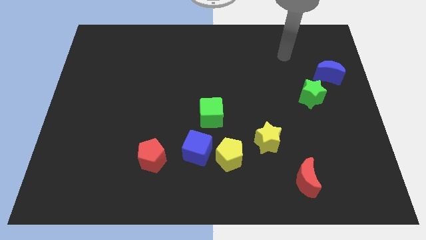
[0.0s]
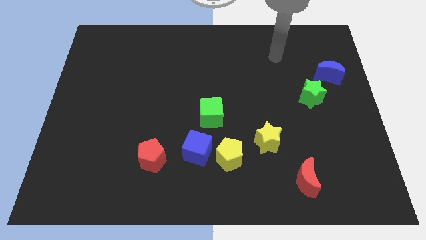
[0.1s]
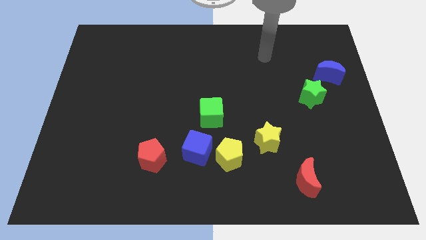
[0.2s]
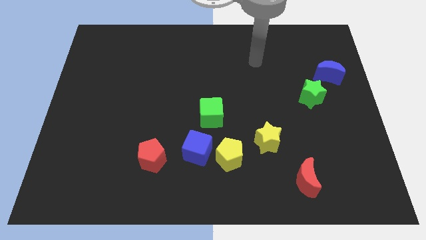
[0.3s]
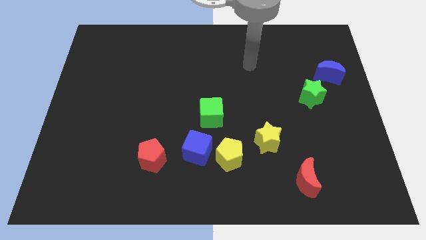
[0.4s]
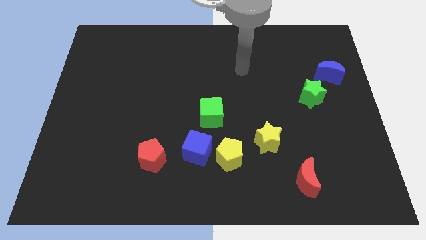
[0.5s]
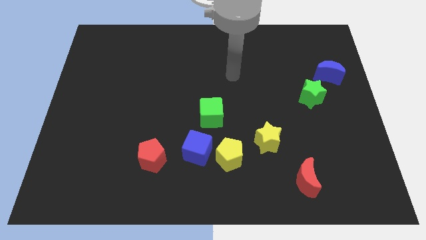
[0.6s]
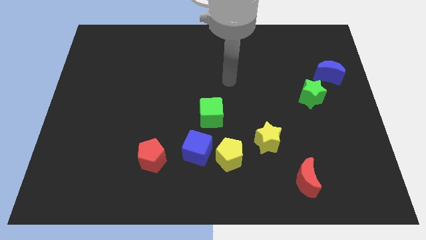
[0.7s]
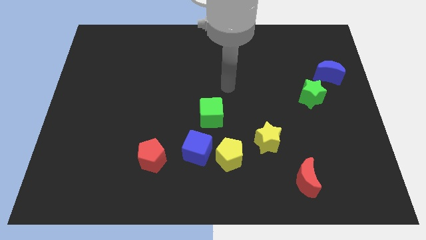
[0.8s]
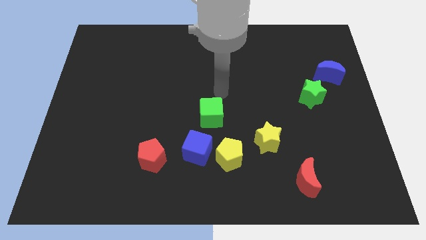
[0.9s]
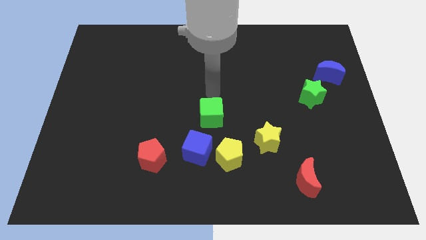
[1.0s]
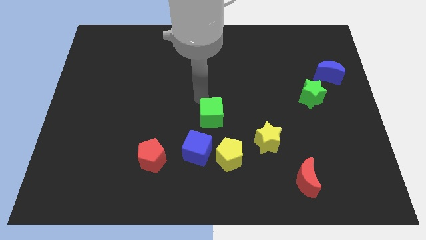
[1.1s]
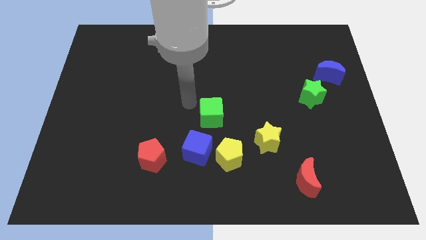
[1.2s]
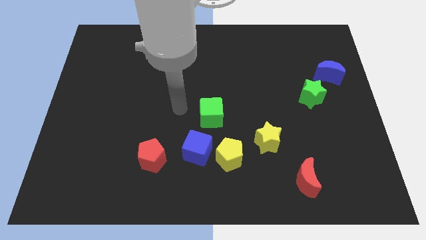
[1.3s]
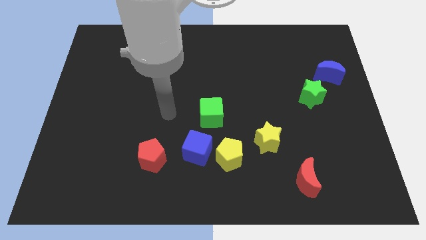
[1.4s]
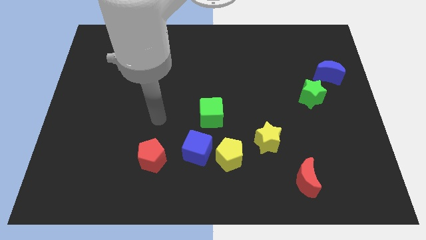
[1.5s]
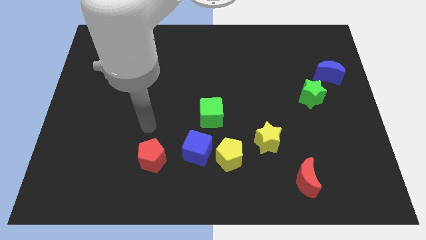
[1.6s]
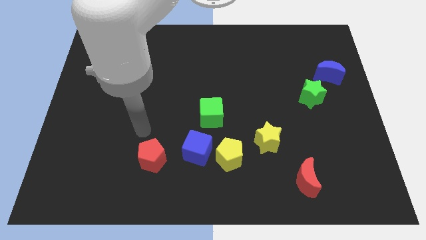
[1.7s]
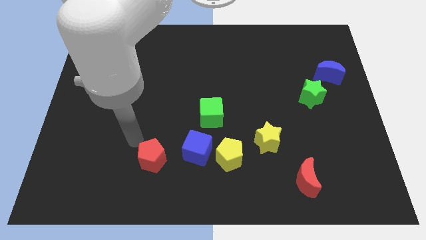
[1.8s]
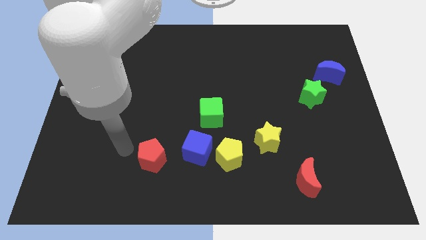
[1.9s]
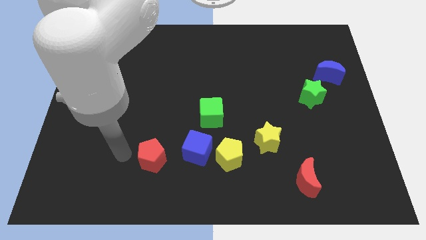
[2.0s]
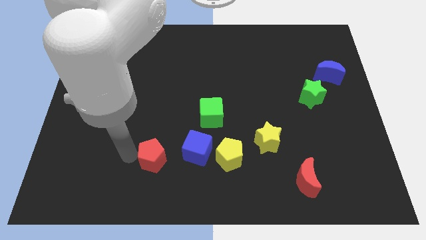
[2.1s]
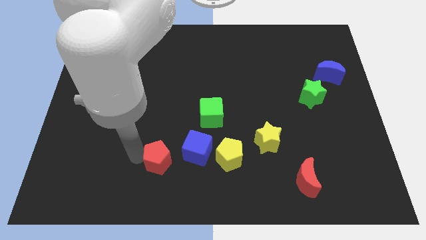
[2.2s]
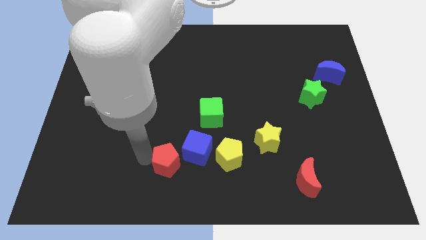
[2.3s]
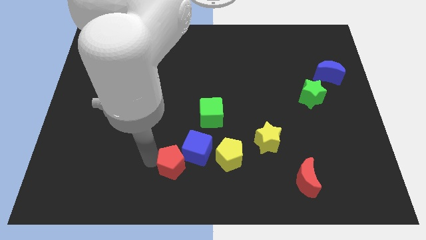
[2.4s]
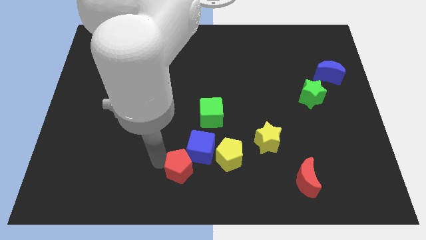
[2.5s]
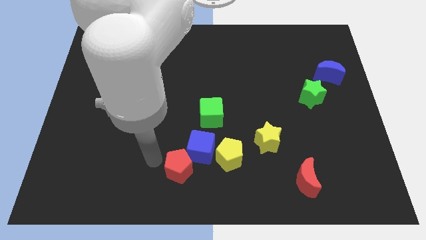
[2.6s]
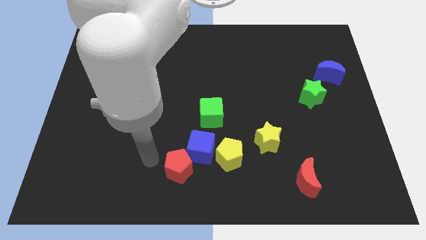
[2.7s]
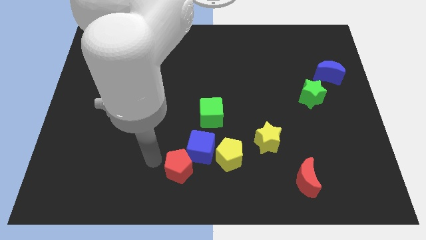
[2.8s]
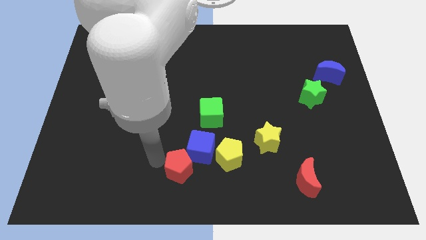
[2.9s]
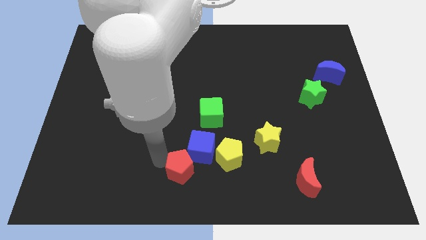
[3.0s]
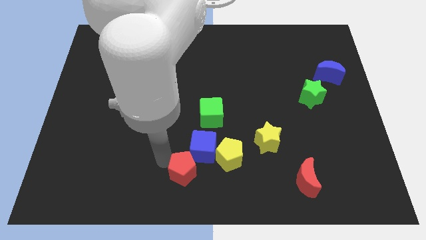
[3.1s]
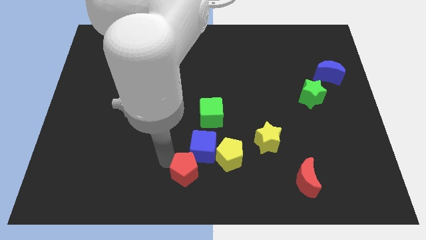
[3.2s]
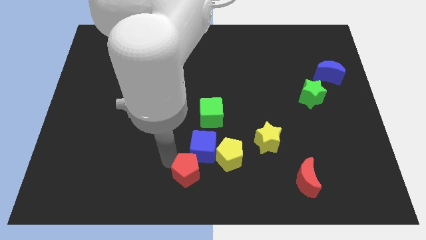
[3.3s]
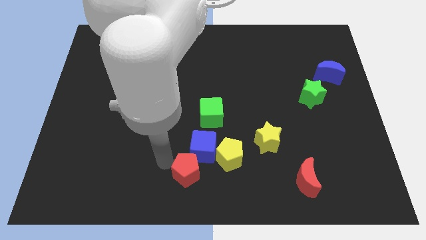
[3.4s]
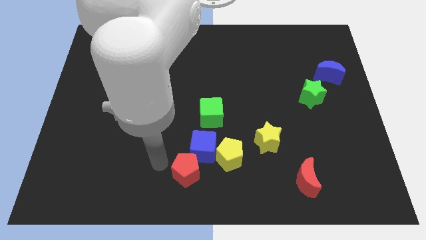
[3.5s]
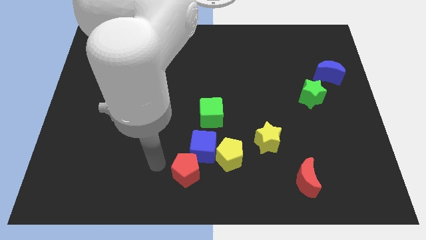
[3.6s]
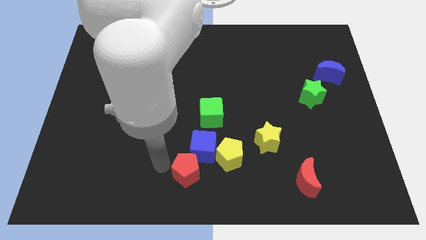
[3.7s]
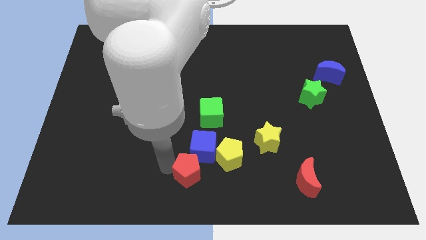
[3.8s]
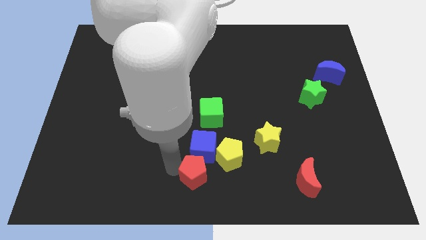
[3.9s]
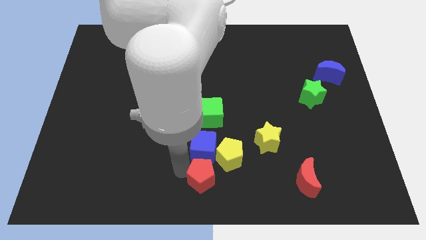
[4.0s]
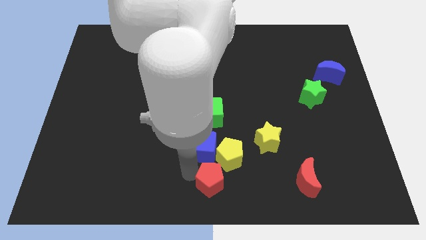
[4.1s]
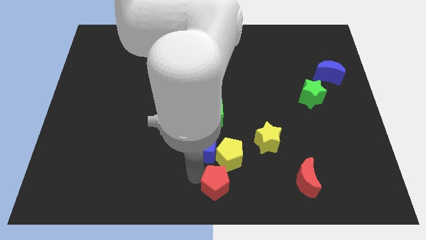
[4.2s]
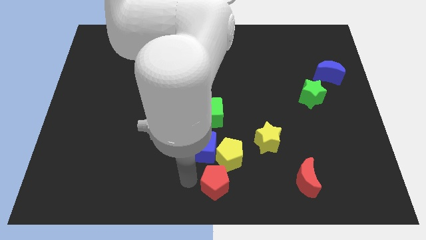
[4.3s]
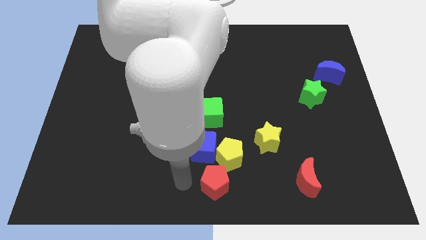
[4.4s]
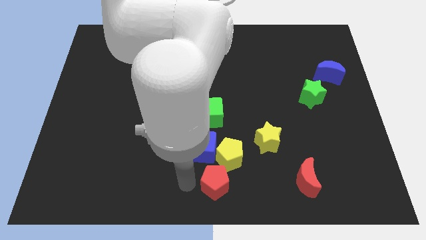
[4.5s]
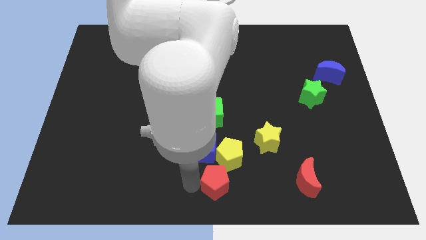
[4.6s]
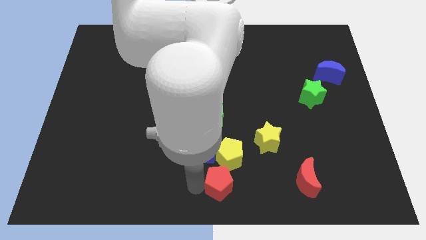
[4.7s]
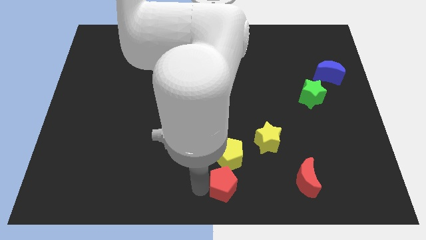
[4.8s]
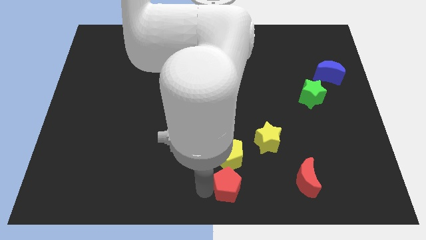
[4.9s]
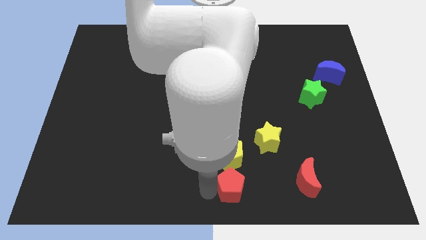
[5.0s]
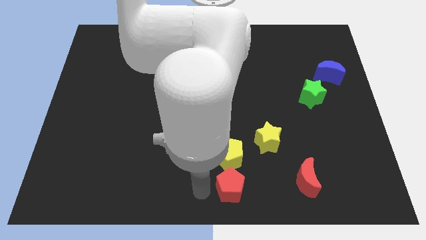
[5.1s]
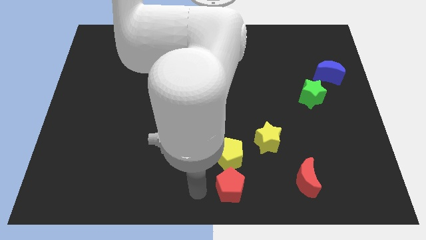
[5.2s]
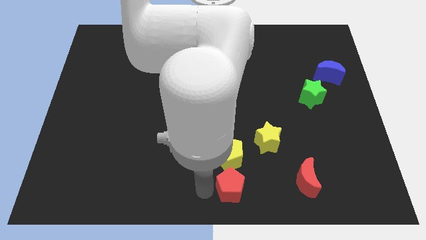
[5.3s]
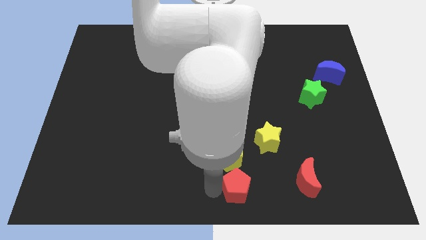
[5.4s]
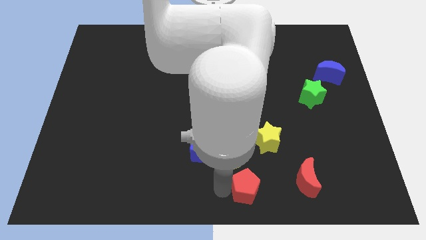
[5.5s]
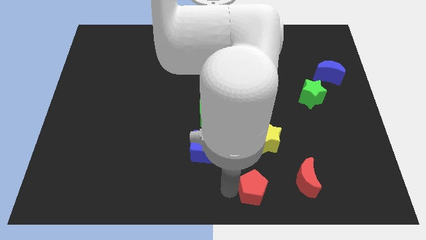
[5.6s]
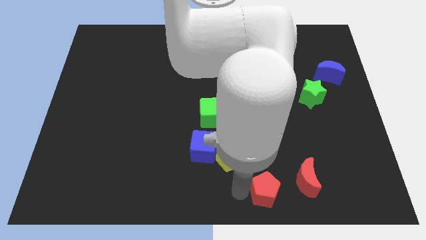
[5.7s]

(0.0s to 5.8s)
move the red pentagon right

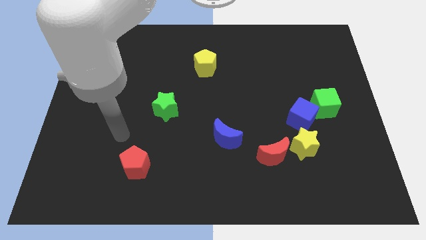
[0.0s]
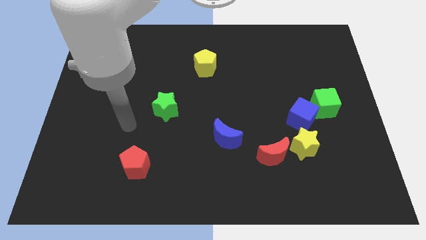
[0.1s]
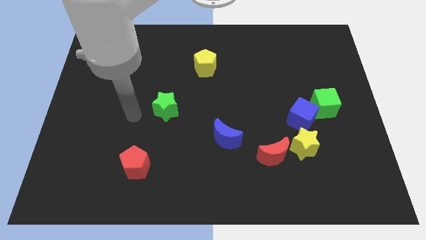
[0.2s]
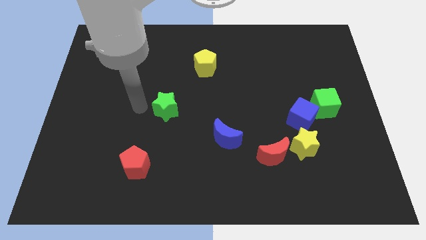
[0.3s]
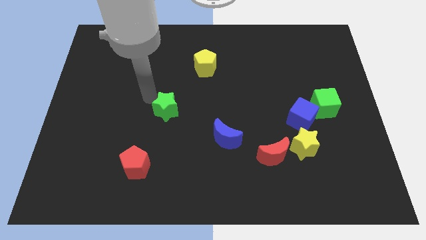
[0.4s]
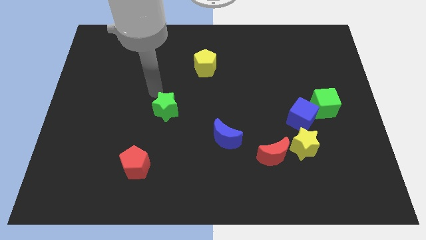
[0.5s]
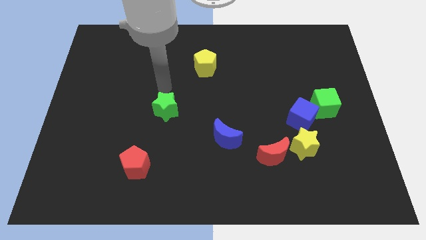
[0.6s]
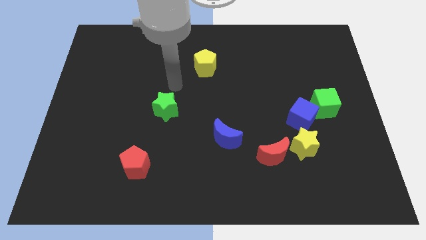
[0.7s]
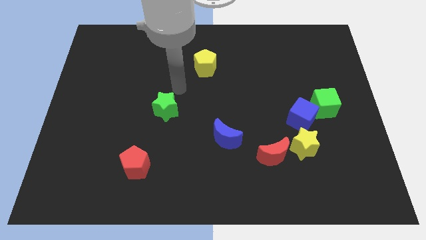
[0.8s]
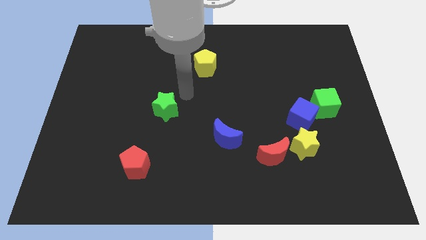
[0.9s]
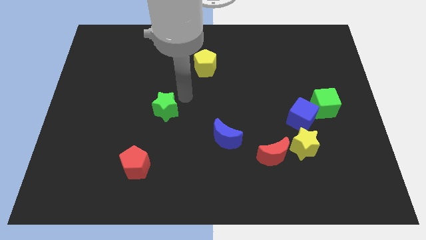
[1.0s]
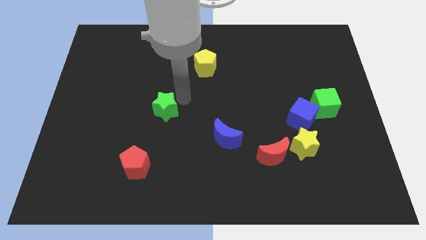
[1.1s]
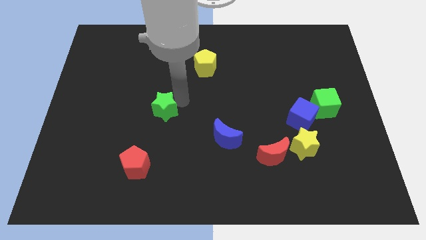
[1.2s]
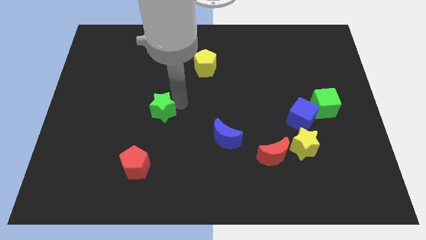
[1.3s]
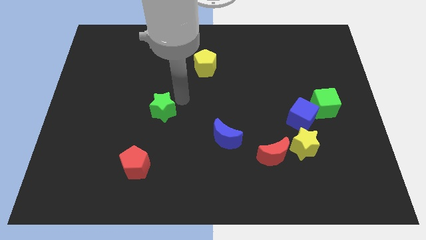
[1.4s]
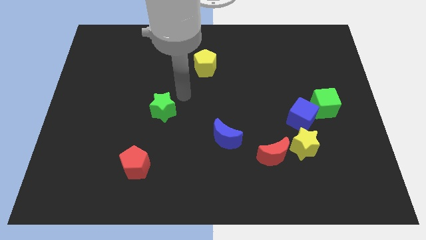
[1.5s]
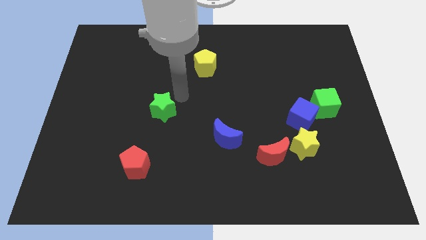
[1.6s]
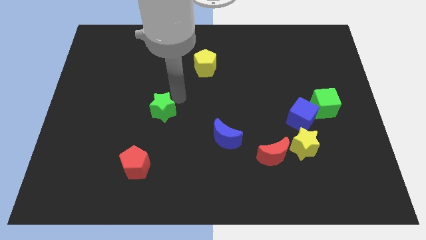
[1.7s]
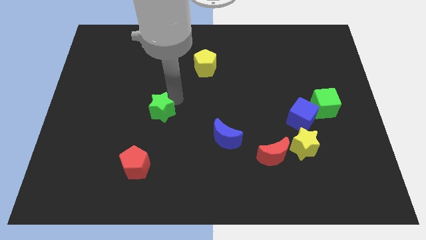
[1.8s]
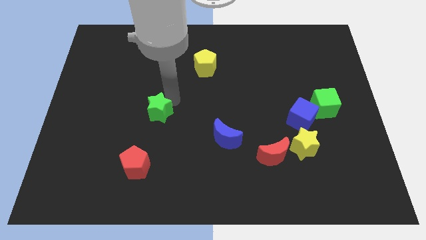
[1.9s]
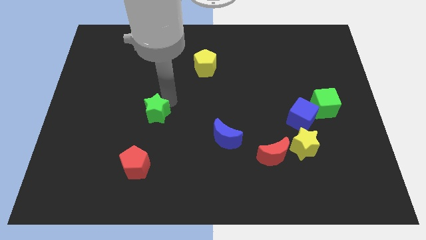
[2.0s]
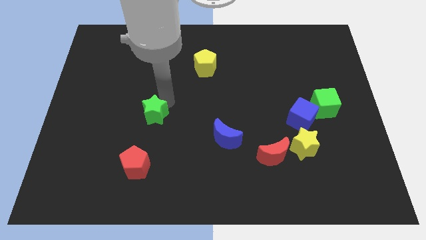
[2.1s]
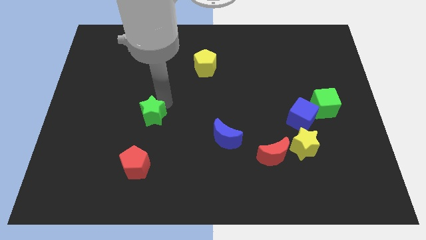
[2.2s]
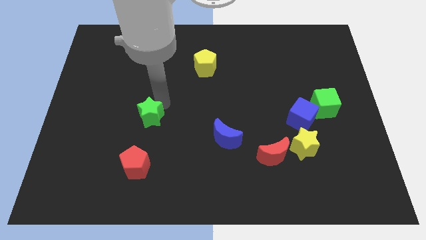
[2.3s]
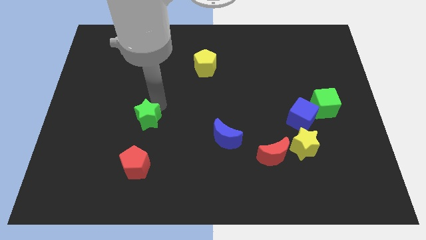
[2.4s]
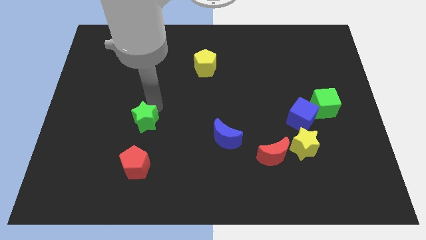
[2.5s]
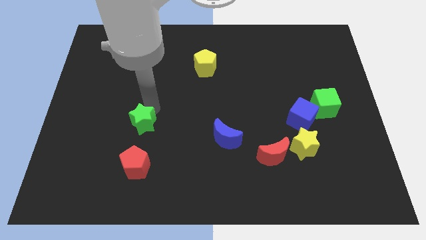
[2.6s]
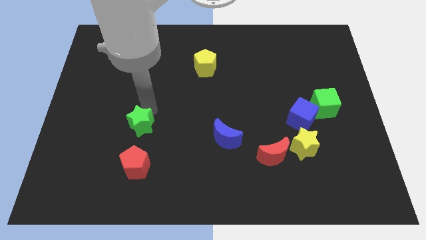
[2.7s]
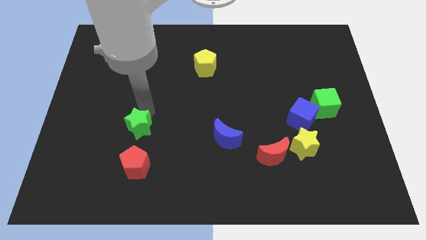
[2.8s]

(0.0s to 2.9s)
slide the green star somewhat downwards and left
